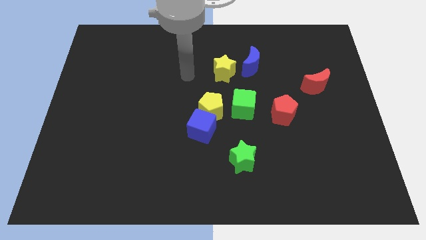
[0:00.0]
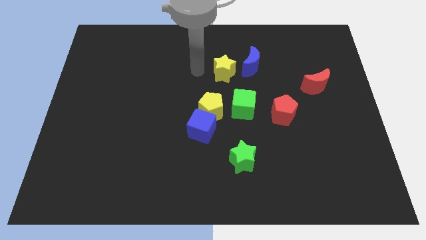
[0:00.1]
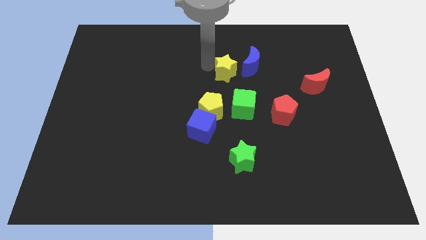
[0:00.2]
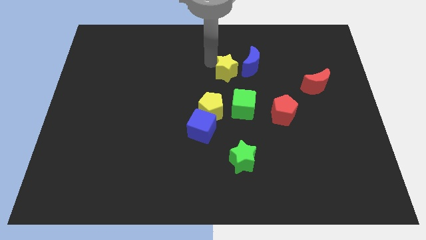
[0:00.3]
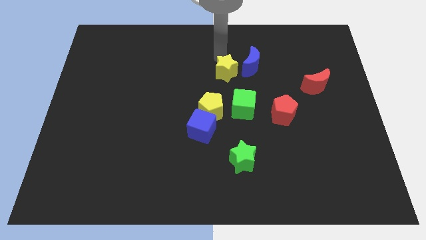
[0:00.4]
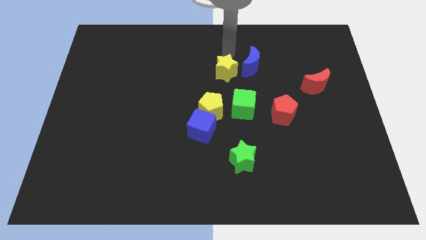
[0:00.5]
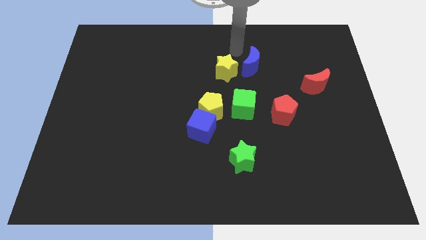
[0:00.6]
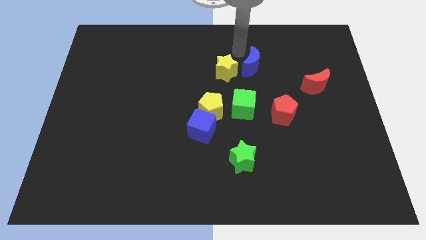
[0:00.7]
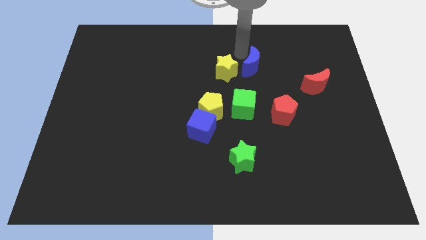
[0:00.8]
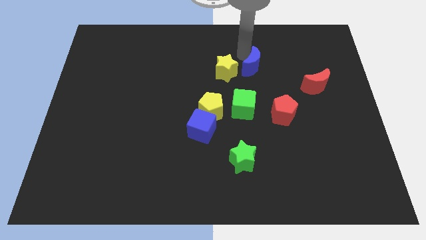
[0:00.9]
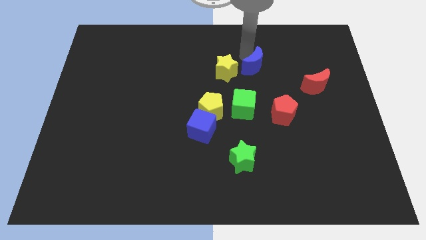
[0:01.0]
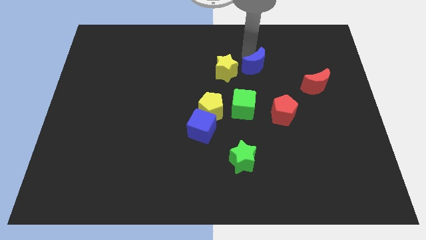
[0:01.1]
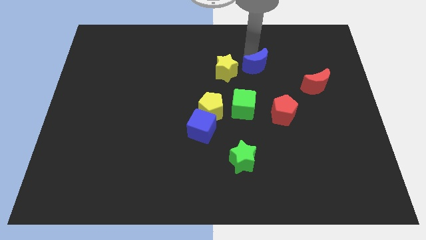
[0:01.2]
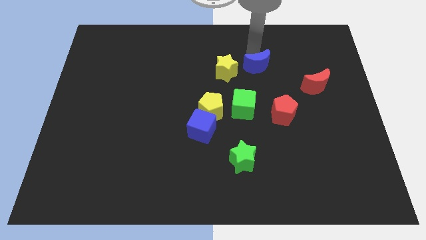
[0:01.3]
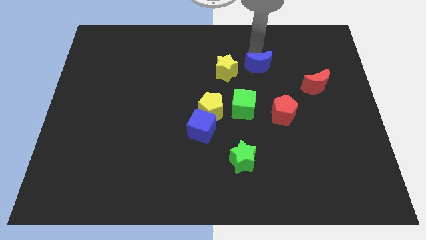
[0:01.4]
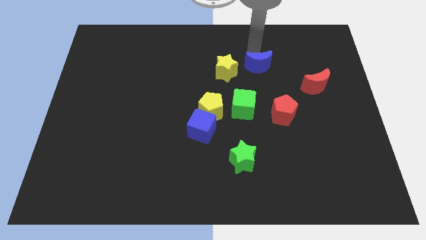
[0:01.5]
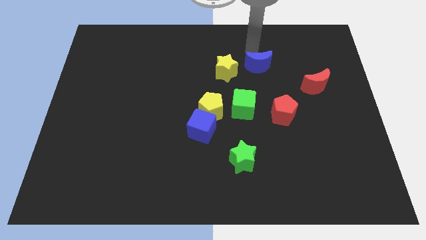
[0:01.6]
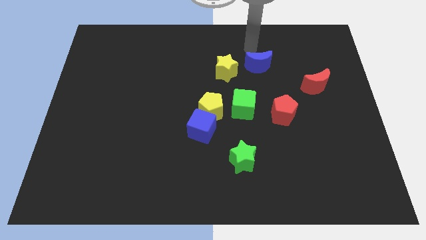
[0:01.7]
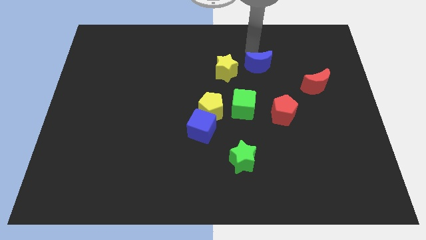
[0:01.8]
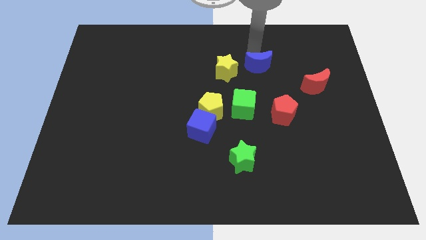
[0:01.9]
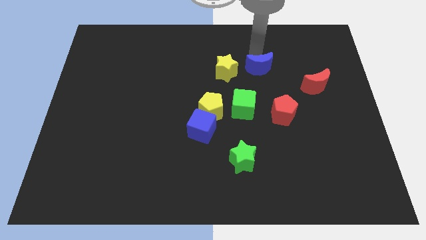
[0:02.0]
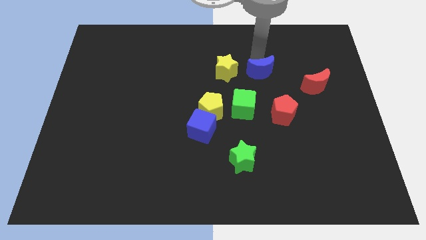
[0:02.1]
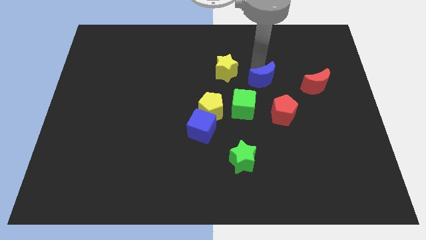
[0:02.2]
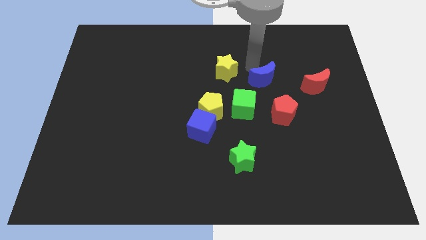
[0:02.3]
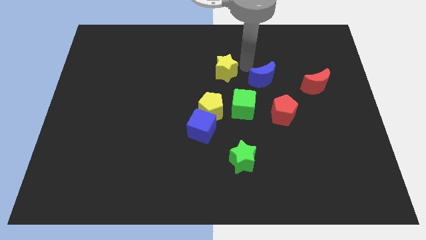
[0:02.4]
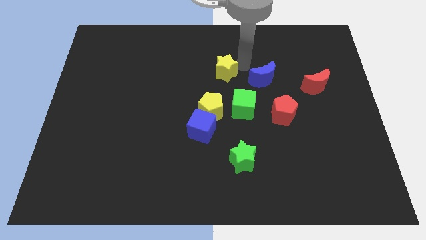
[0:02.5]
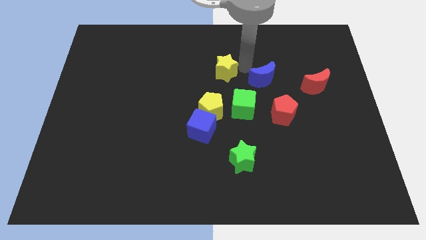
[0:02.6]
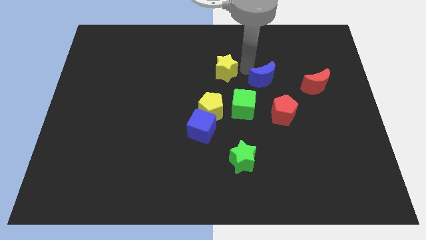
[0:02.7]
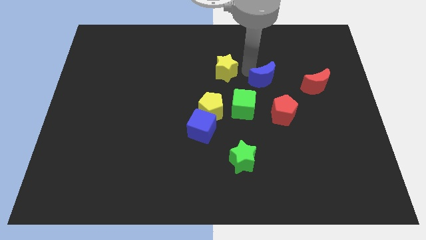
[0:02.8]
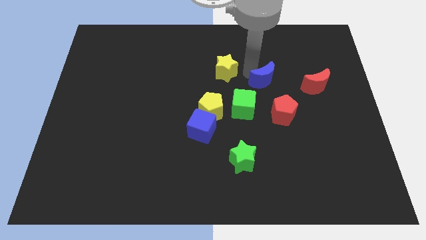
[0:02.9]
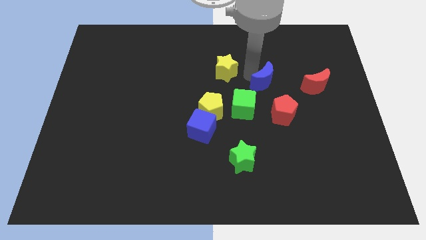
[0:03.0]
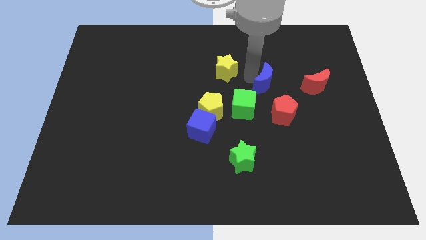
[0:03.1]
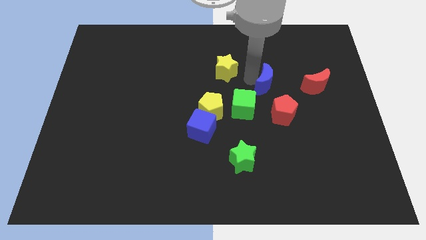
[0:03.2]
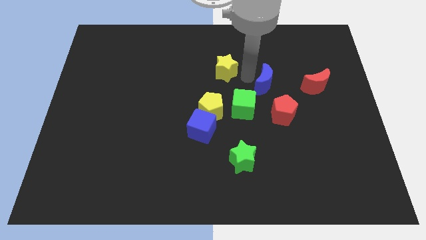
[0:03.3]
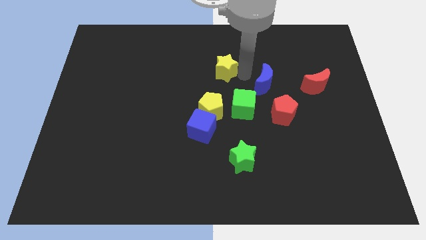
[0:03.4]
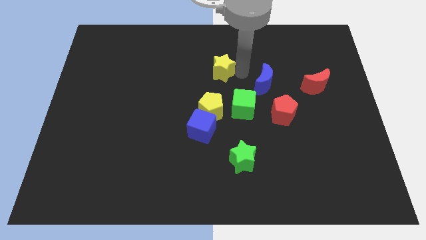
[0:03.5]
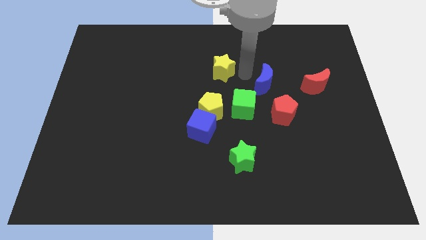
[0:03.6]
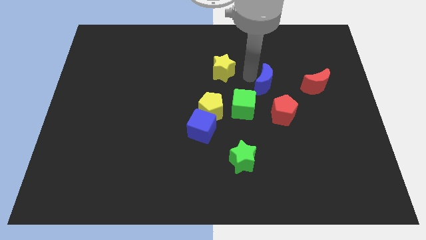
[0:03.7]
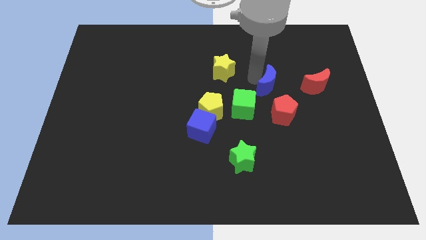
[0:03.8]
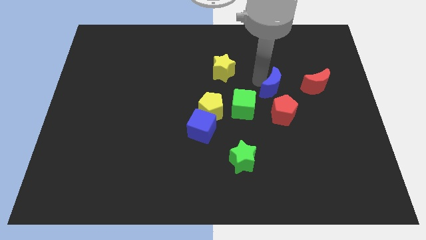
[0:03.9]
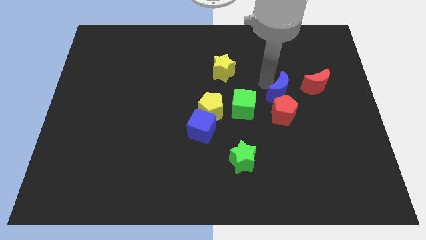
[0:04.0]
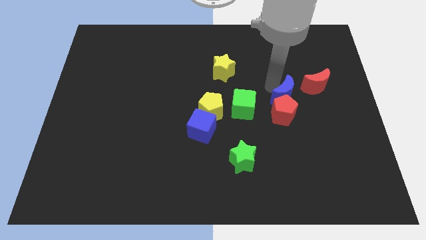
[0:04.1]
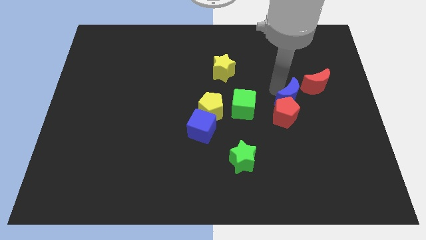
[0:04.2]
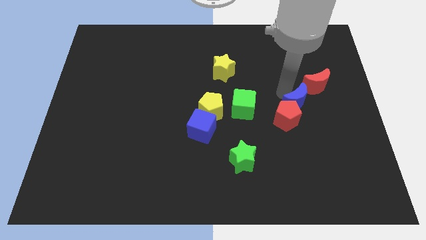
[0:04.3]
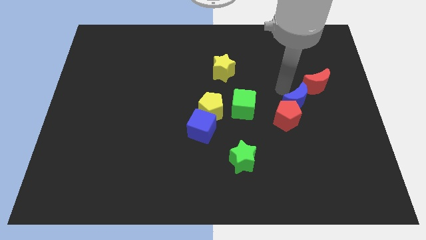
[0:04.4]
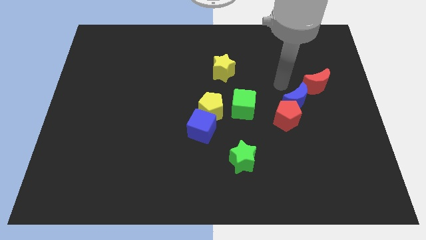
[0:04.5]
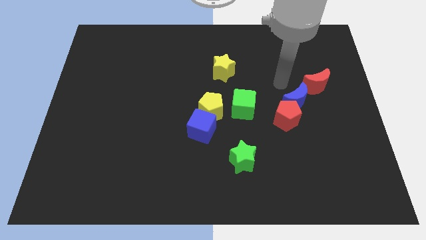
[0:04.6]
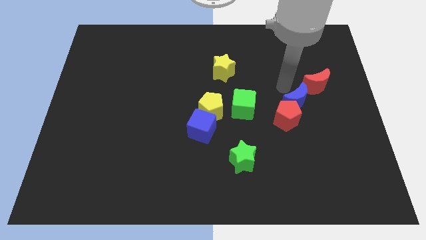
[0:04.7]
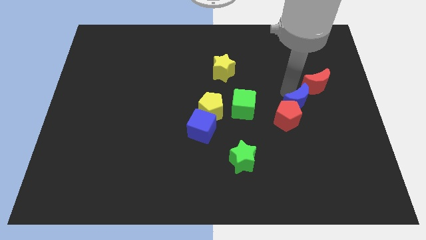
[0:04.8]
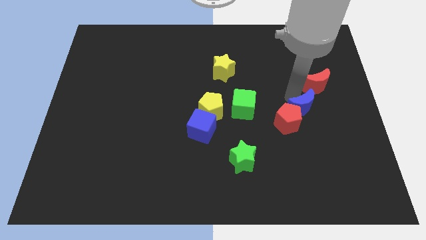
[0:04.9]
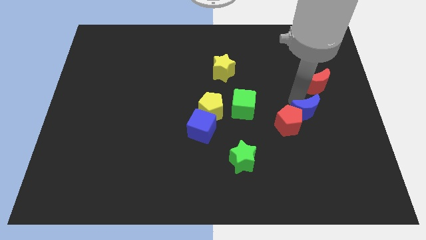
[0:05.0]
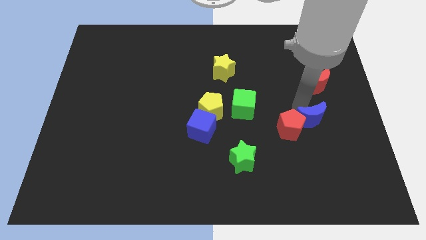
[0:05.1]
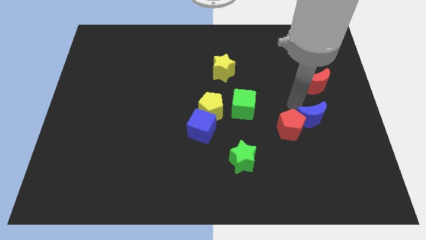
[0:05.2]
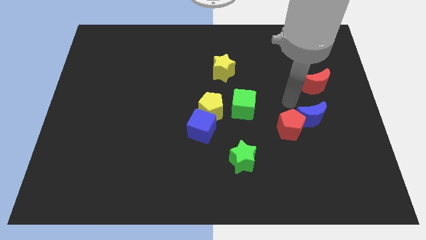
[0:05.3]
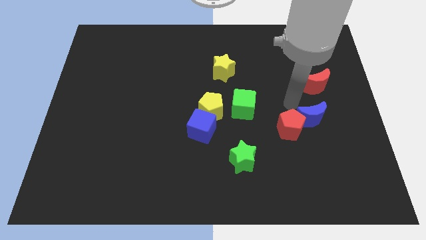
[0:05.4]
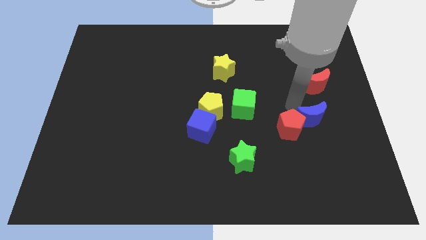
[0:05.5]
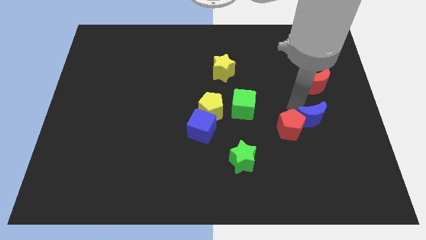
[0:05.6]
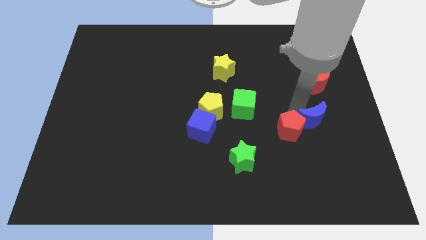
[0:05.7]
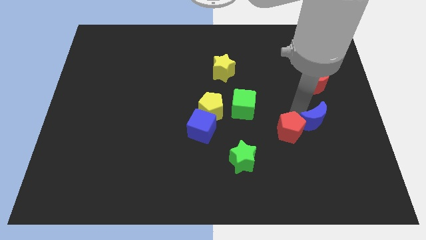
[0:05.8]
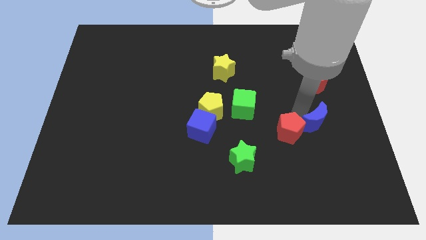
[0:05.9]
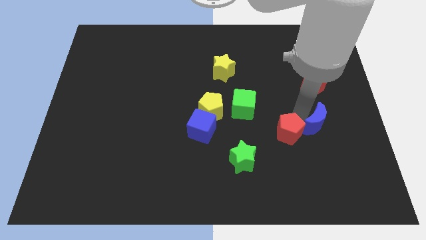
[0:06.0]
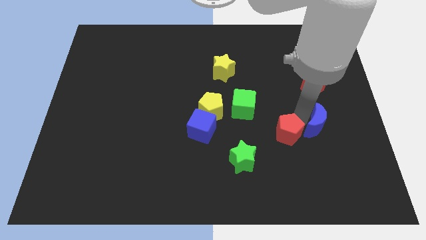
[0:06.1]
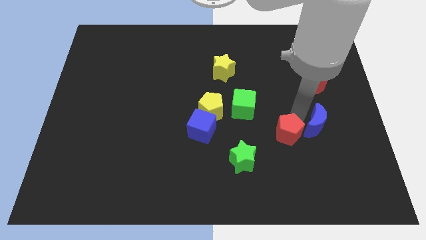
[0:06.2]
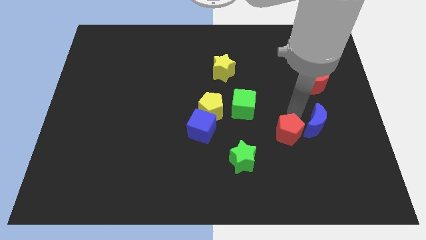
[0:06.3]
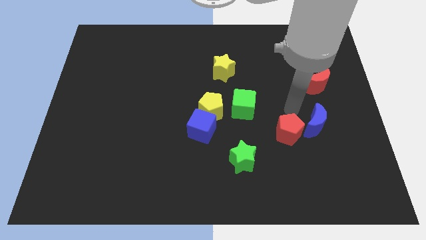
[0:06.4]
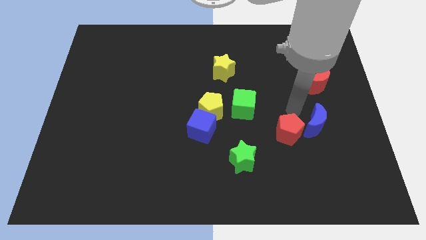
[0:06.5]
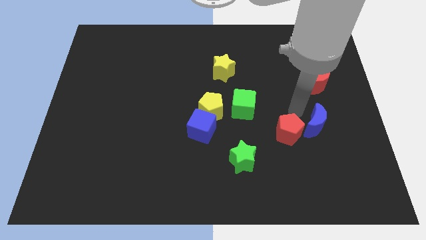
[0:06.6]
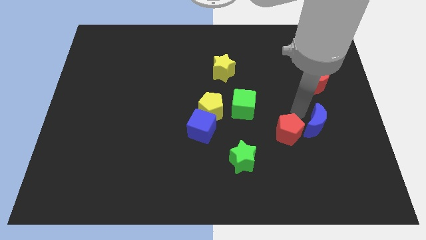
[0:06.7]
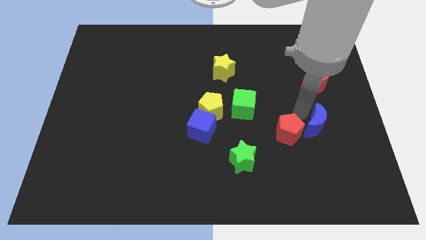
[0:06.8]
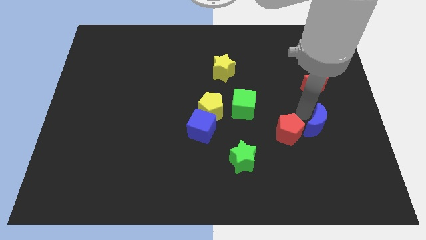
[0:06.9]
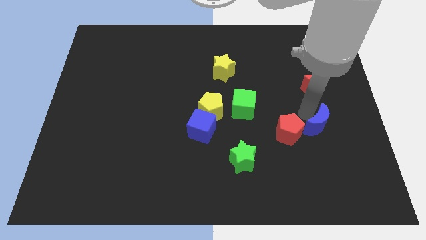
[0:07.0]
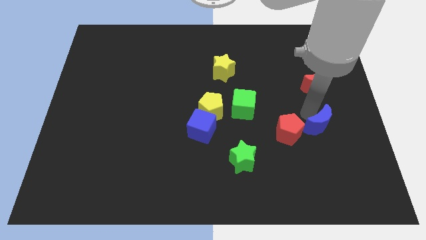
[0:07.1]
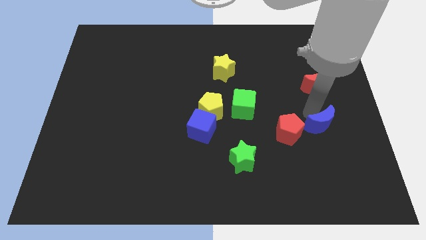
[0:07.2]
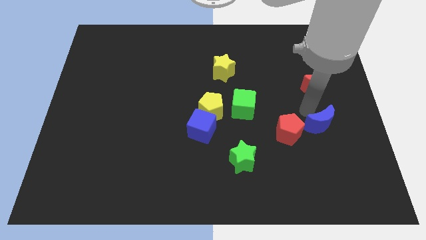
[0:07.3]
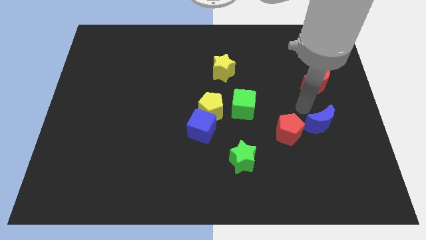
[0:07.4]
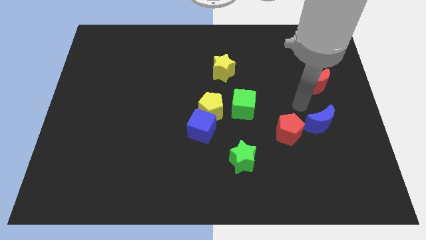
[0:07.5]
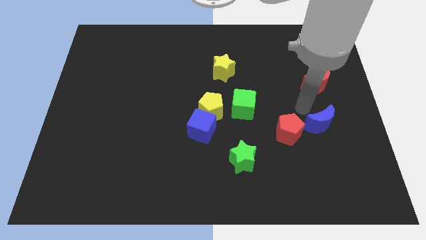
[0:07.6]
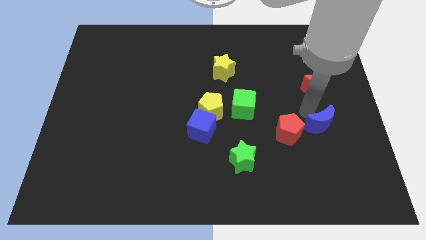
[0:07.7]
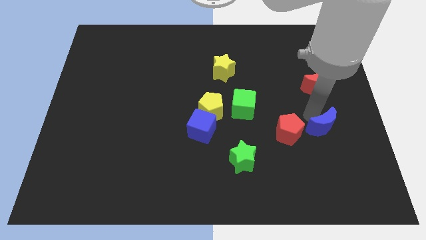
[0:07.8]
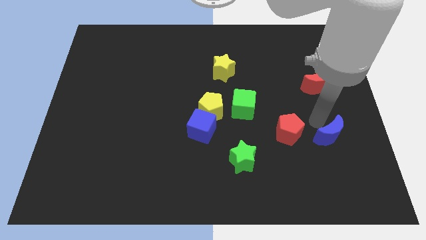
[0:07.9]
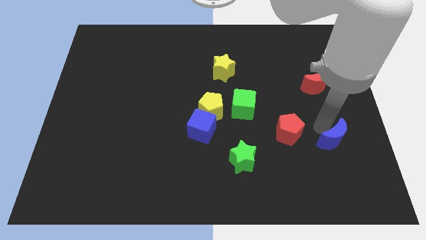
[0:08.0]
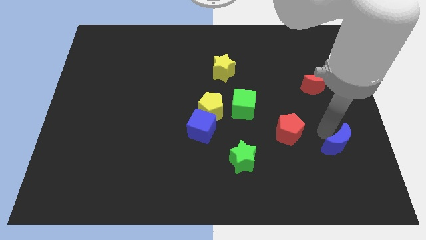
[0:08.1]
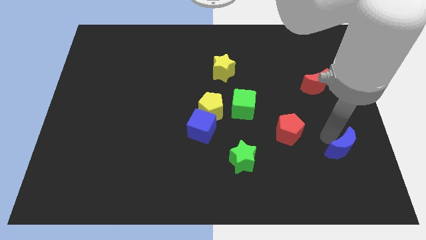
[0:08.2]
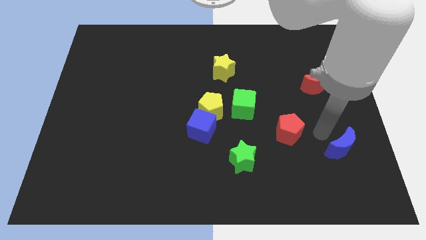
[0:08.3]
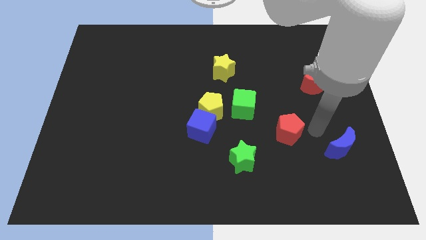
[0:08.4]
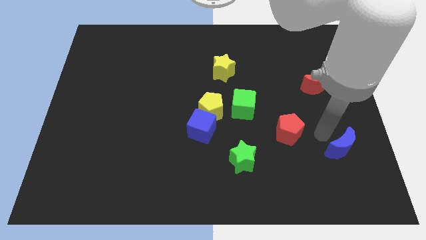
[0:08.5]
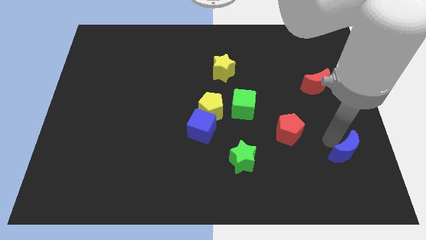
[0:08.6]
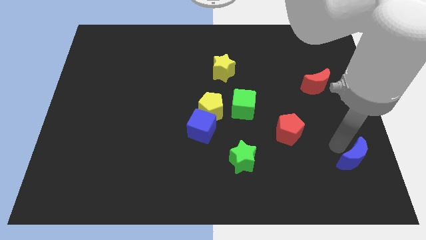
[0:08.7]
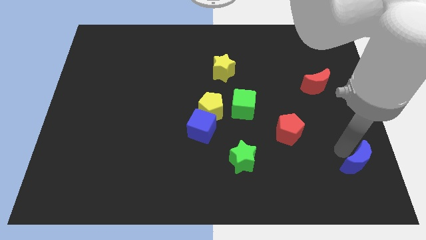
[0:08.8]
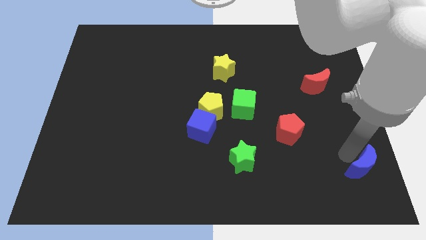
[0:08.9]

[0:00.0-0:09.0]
push the blue moon to the lower right corner
